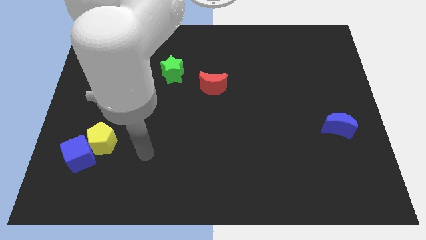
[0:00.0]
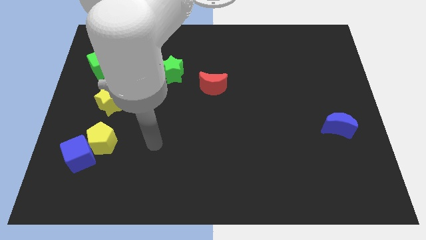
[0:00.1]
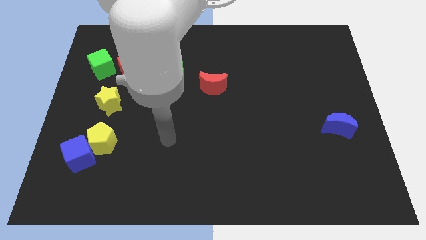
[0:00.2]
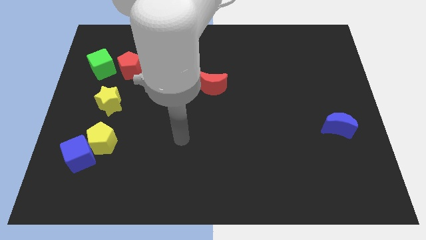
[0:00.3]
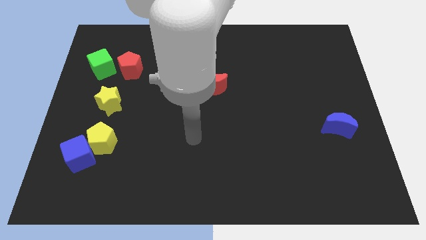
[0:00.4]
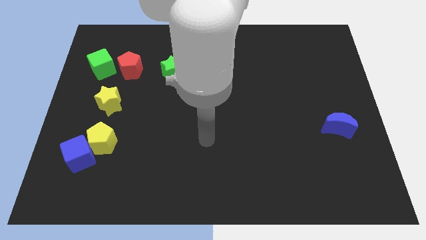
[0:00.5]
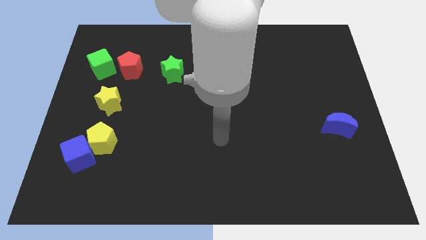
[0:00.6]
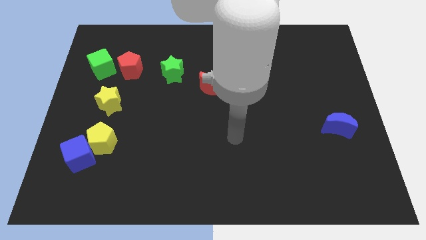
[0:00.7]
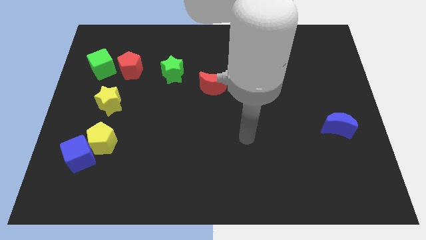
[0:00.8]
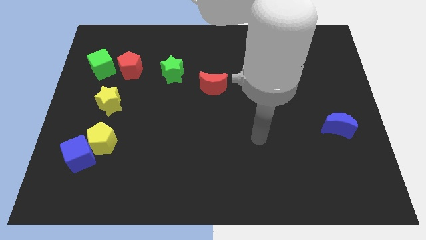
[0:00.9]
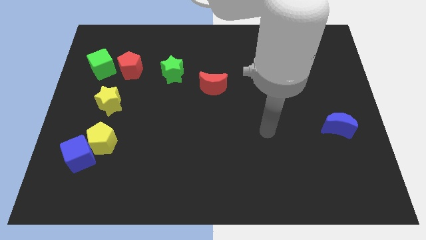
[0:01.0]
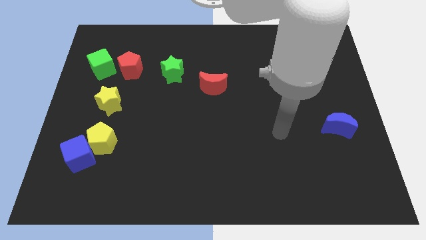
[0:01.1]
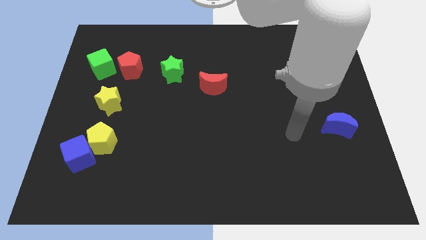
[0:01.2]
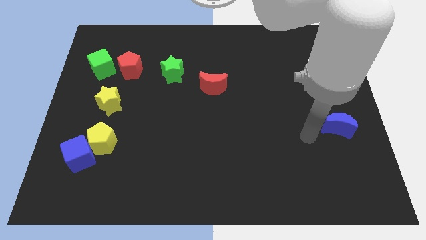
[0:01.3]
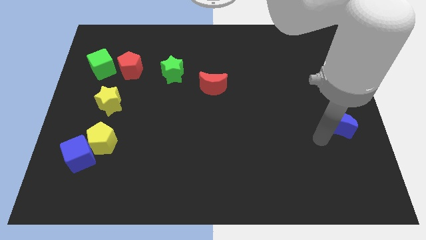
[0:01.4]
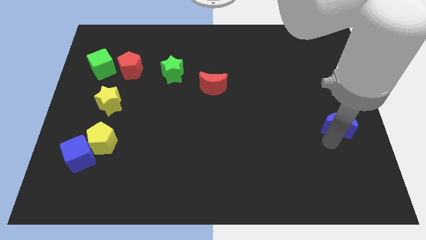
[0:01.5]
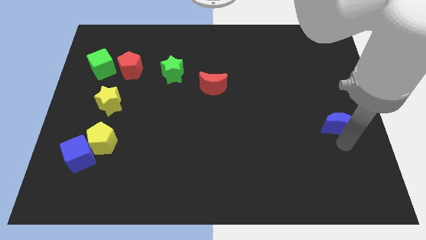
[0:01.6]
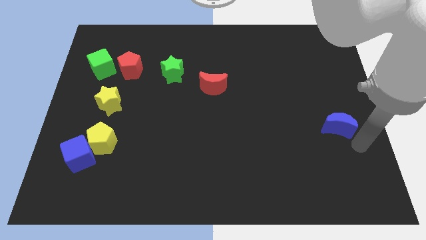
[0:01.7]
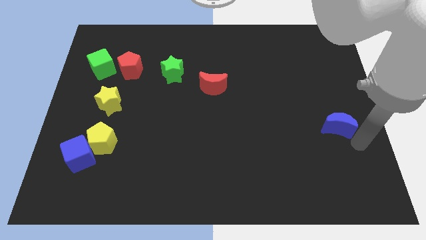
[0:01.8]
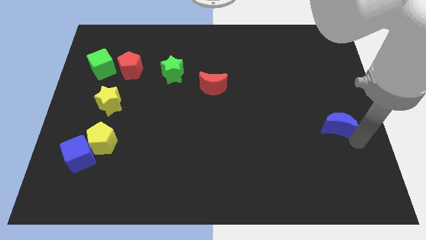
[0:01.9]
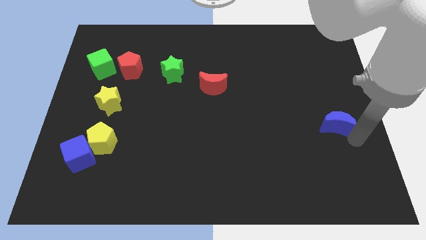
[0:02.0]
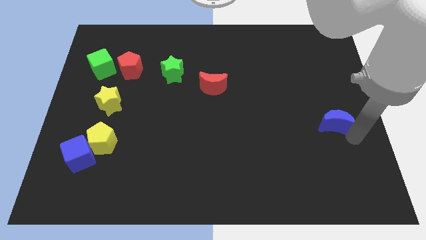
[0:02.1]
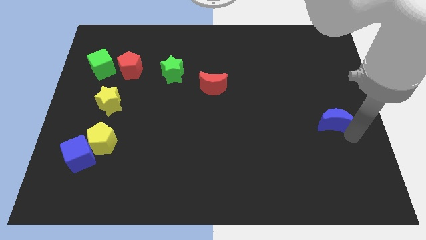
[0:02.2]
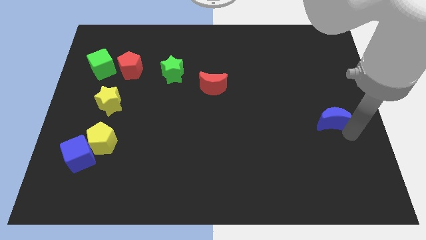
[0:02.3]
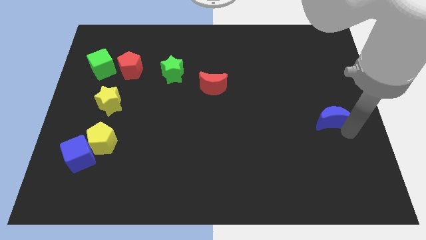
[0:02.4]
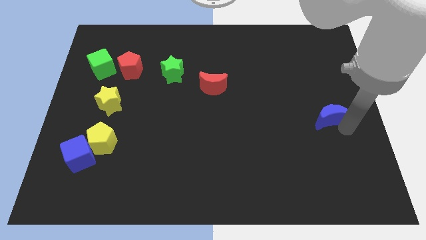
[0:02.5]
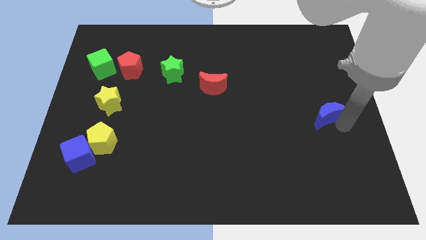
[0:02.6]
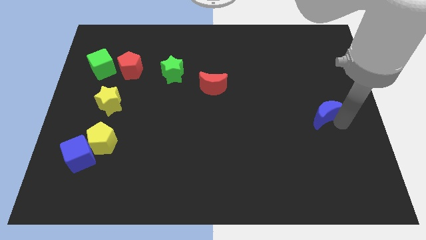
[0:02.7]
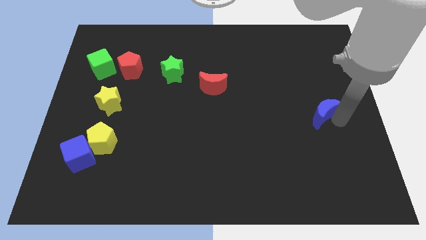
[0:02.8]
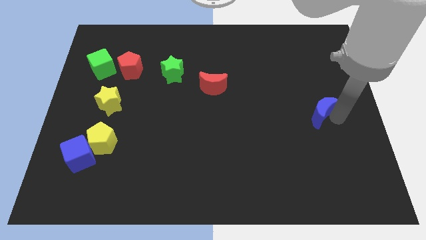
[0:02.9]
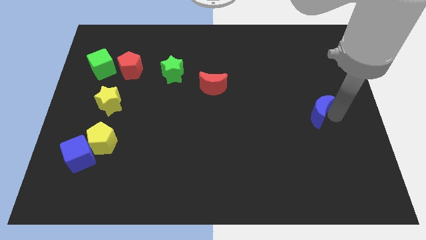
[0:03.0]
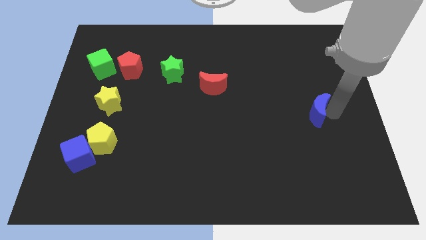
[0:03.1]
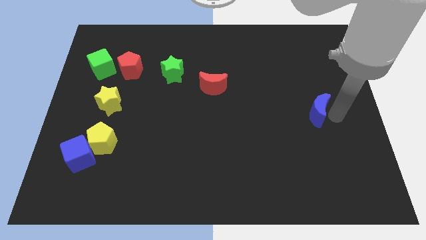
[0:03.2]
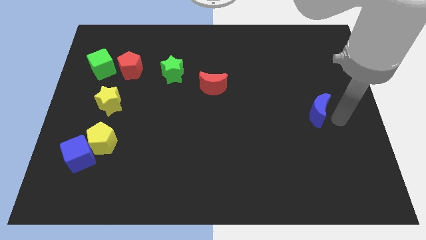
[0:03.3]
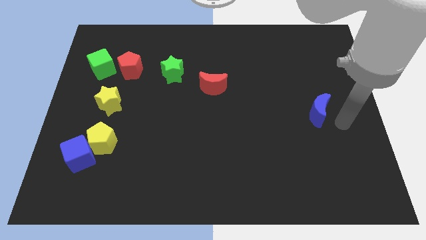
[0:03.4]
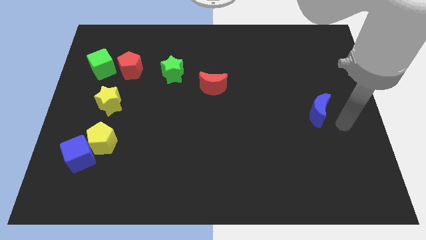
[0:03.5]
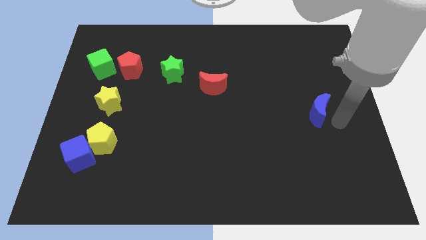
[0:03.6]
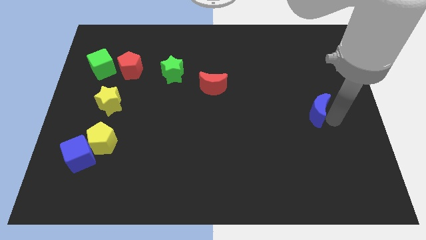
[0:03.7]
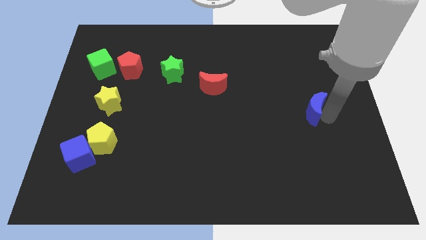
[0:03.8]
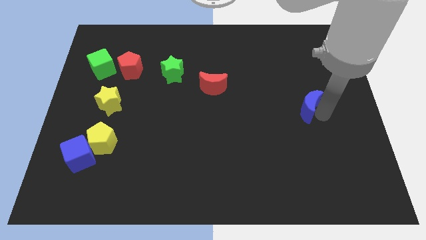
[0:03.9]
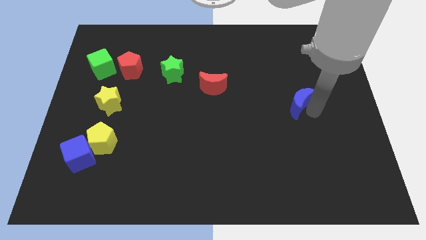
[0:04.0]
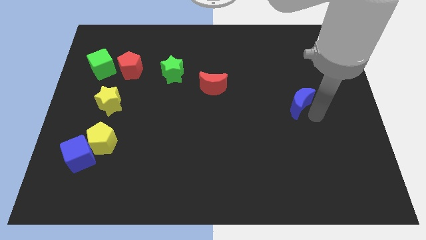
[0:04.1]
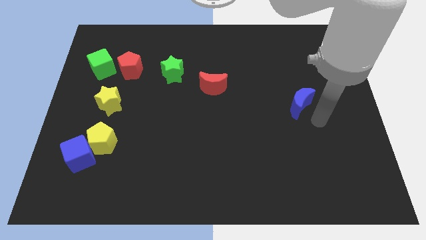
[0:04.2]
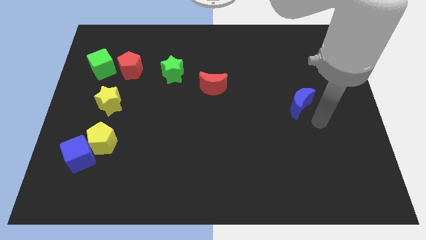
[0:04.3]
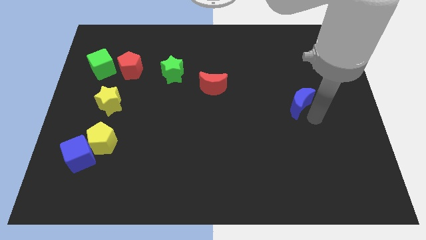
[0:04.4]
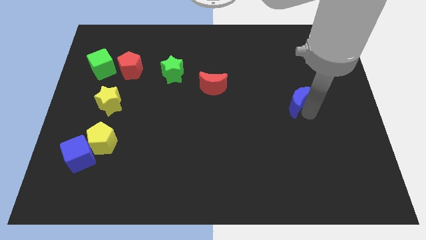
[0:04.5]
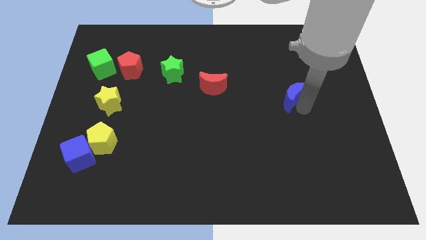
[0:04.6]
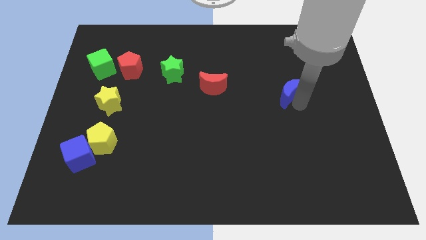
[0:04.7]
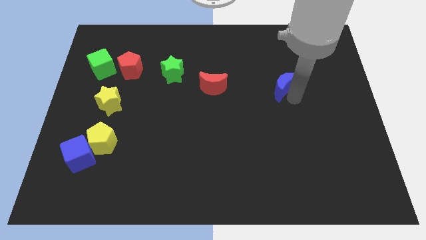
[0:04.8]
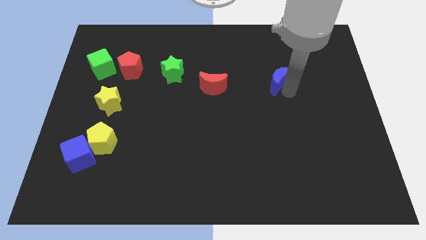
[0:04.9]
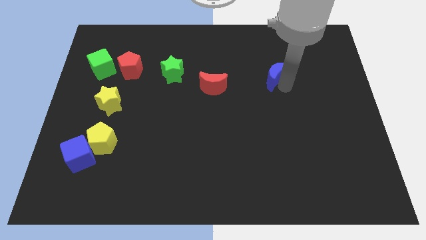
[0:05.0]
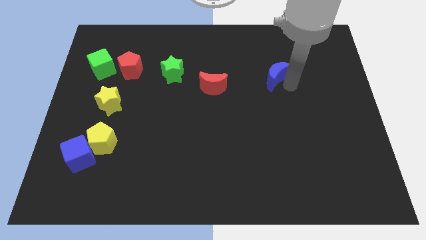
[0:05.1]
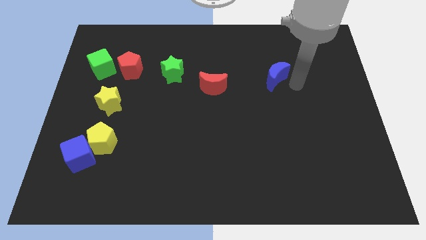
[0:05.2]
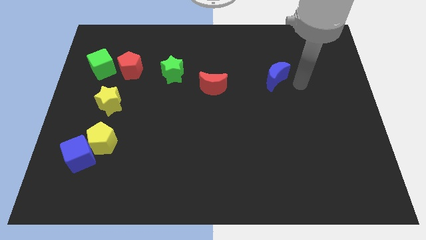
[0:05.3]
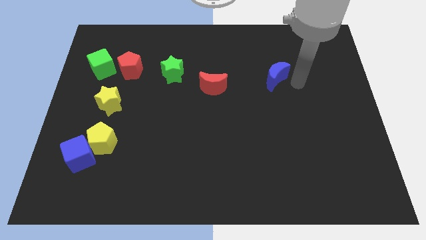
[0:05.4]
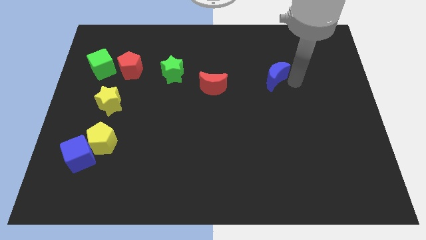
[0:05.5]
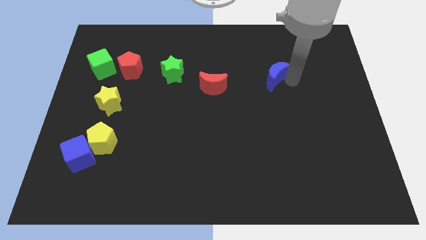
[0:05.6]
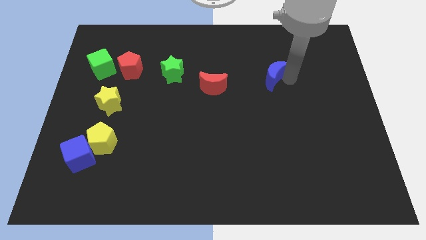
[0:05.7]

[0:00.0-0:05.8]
move the blue moon up and left

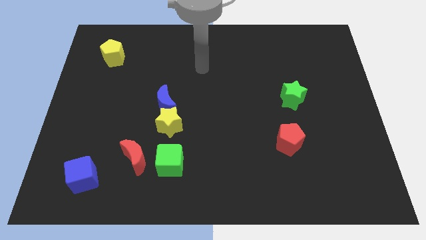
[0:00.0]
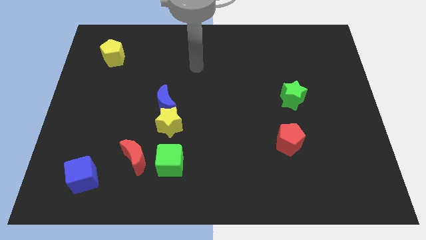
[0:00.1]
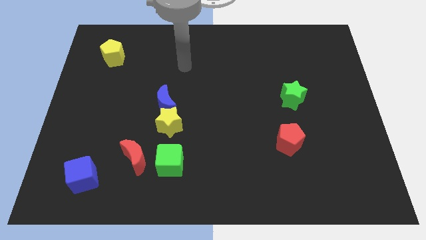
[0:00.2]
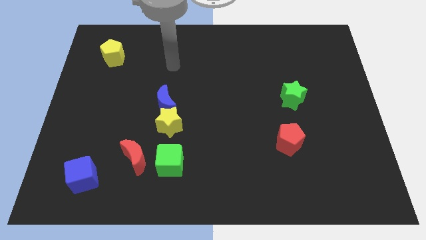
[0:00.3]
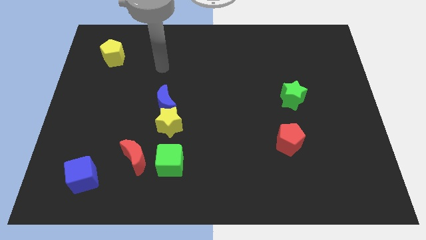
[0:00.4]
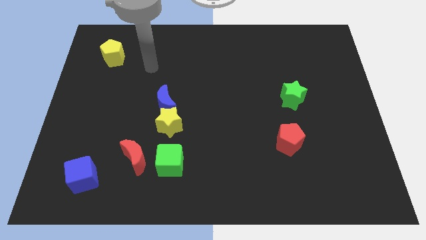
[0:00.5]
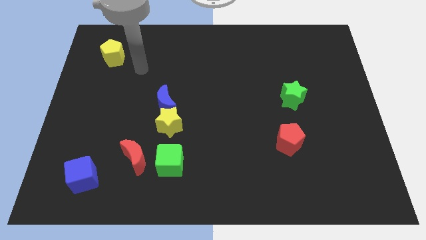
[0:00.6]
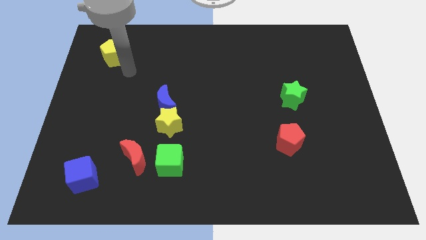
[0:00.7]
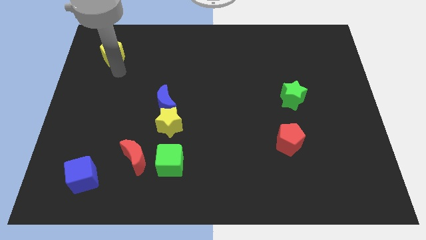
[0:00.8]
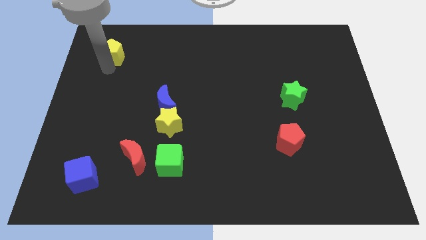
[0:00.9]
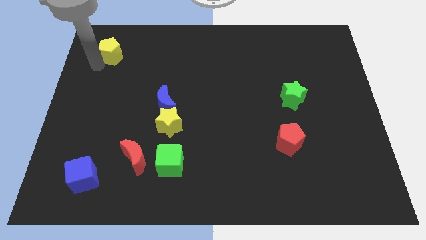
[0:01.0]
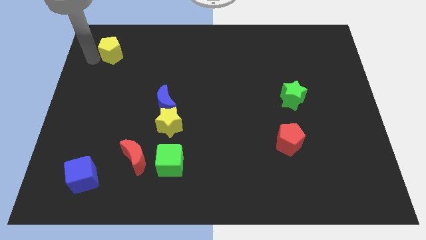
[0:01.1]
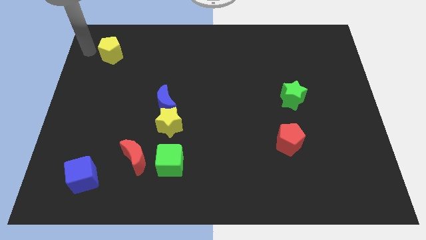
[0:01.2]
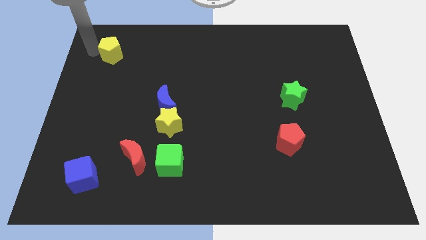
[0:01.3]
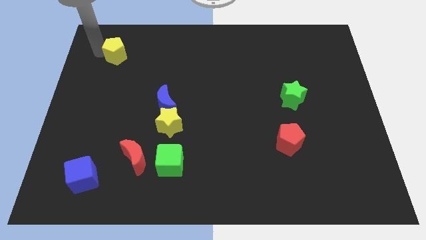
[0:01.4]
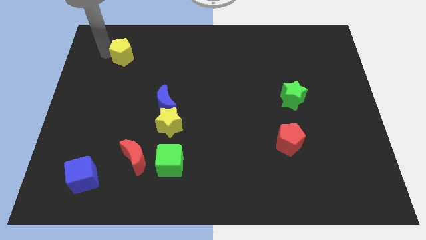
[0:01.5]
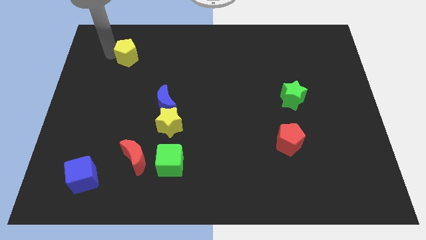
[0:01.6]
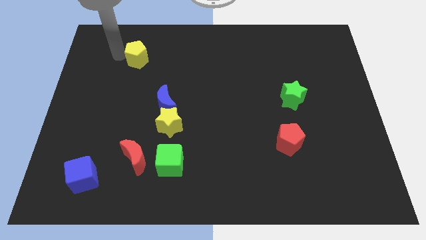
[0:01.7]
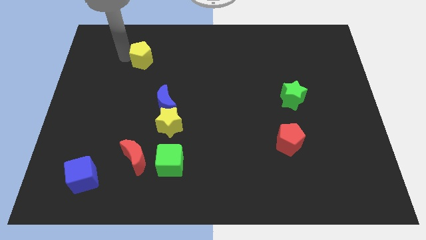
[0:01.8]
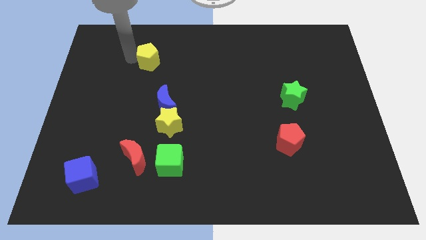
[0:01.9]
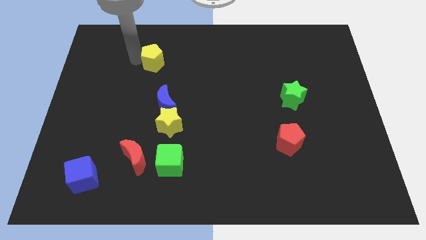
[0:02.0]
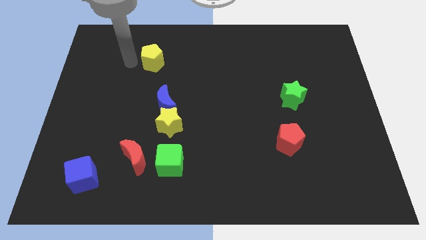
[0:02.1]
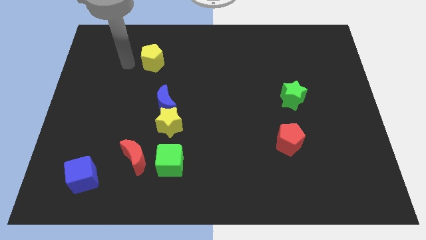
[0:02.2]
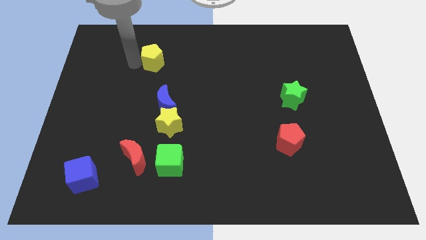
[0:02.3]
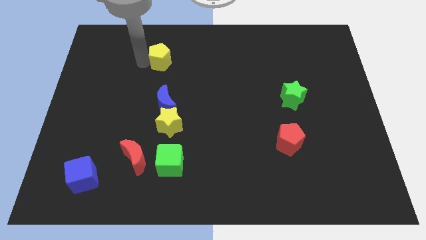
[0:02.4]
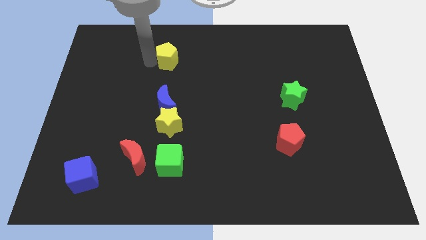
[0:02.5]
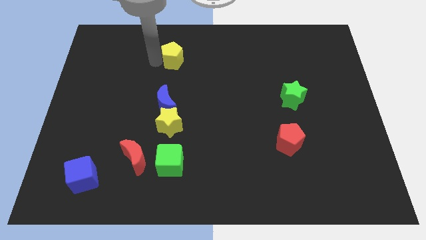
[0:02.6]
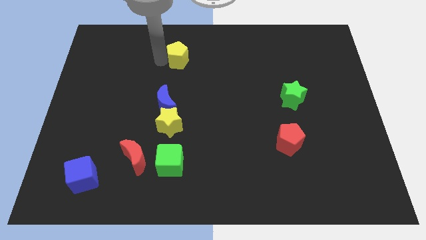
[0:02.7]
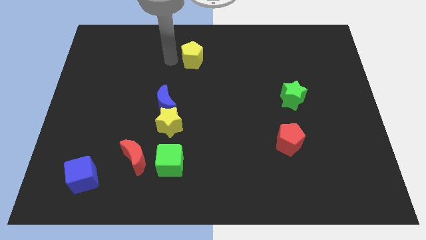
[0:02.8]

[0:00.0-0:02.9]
push the yellow pentagon right
